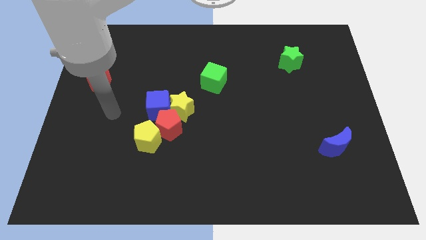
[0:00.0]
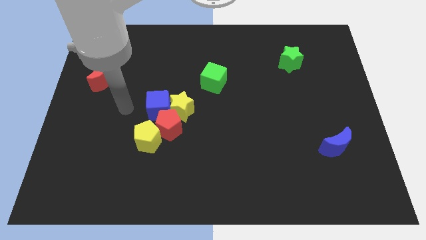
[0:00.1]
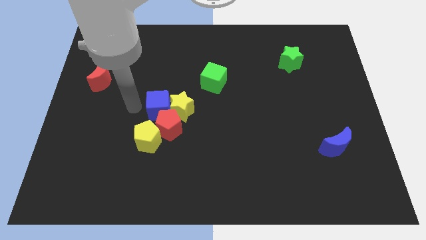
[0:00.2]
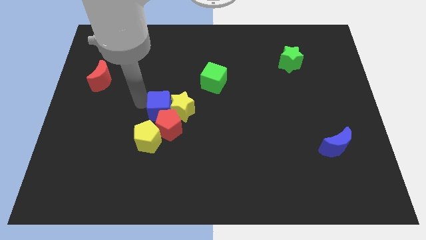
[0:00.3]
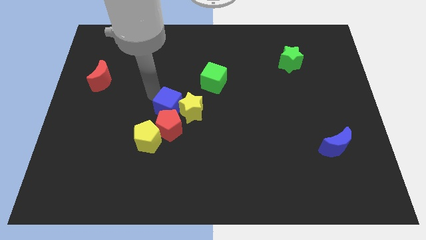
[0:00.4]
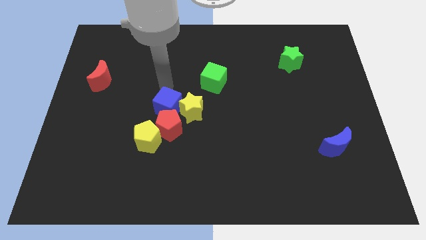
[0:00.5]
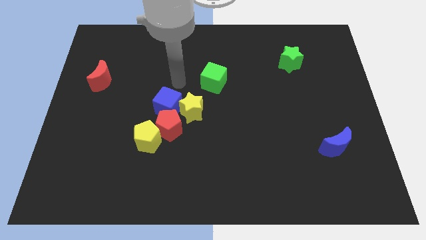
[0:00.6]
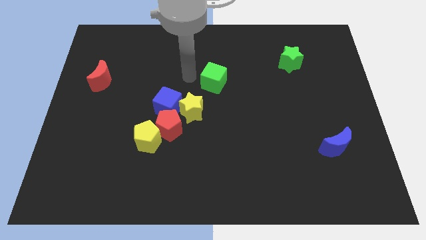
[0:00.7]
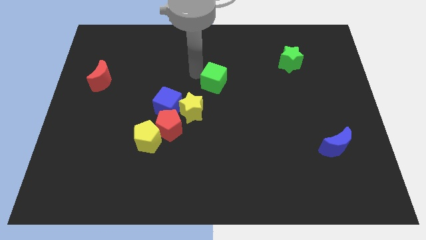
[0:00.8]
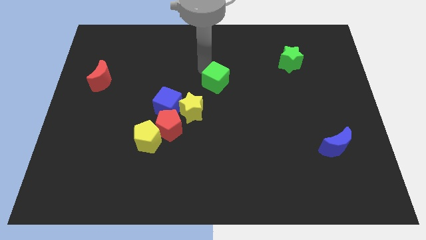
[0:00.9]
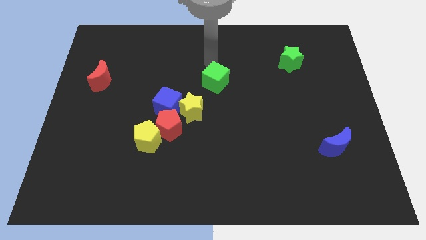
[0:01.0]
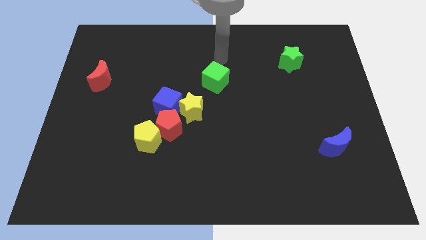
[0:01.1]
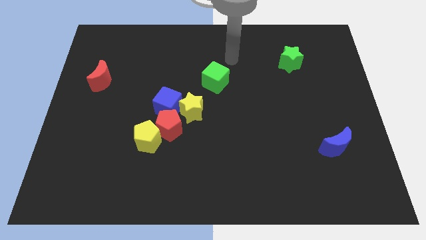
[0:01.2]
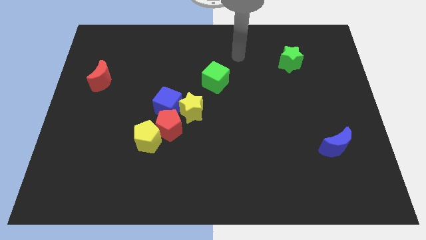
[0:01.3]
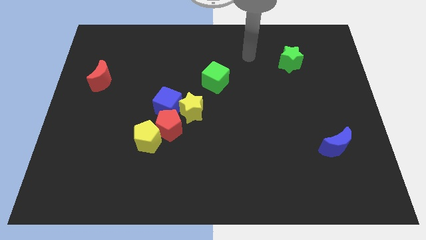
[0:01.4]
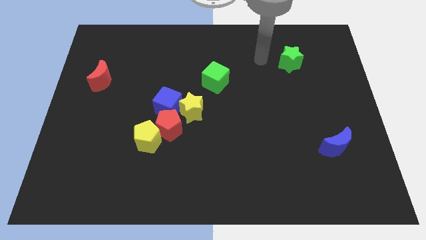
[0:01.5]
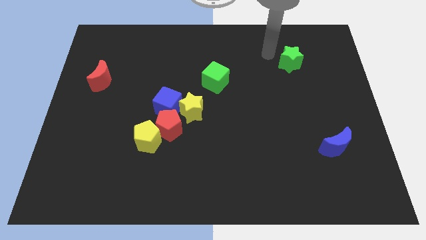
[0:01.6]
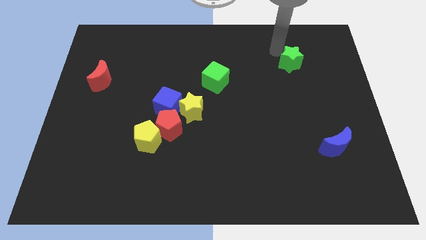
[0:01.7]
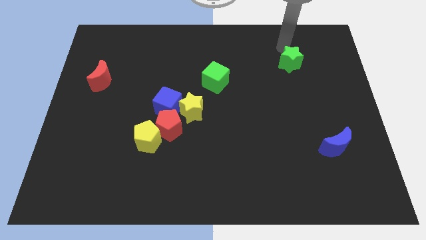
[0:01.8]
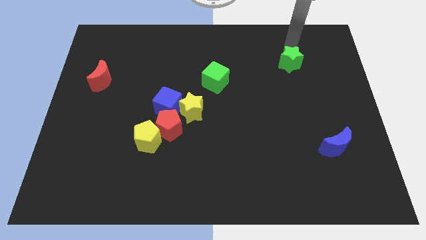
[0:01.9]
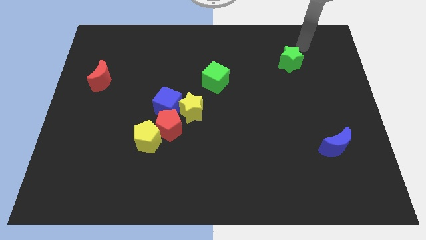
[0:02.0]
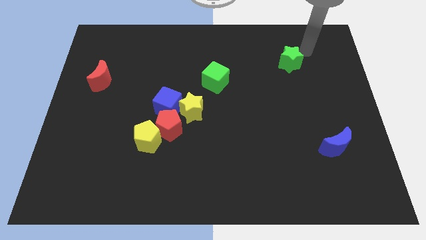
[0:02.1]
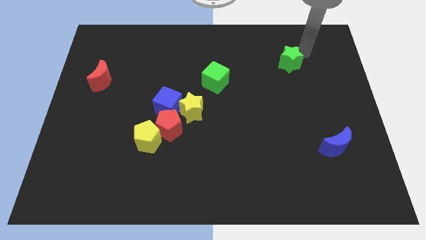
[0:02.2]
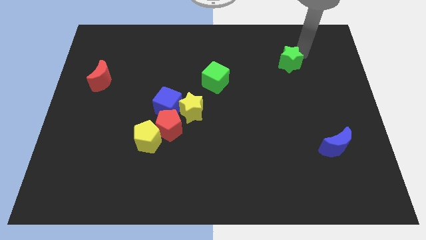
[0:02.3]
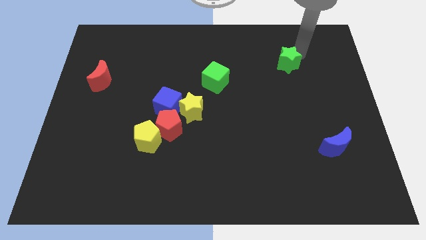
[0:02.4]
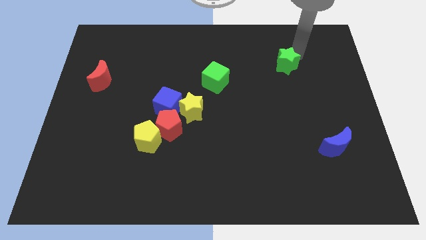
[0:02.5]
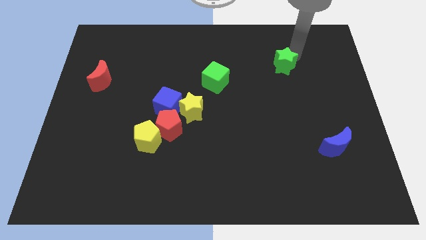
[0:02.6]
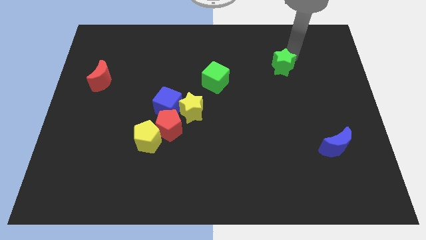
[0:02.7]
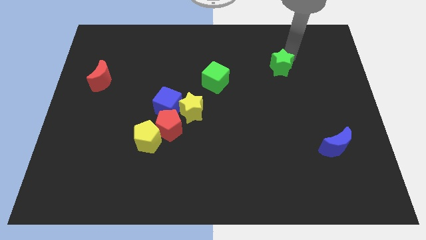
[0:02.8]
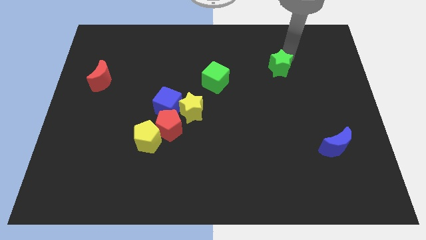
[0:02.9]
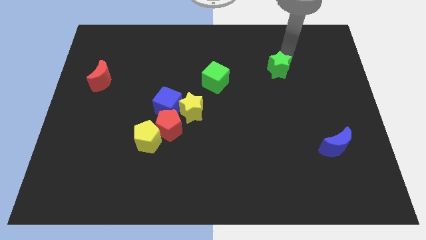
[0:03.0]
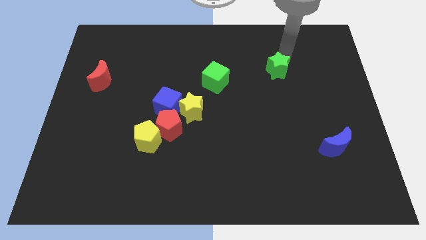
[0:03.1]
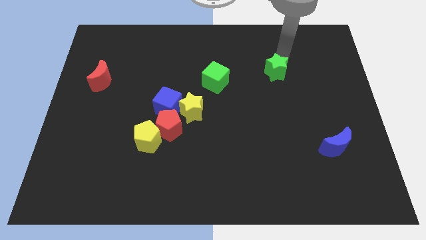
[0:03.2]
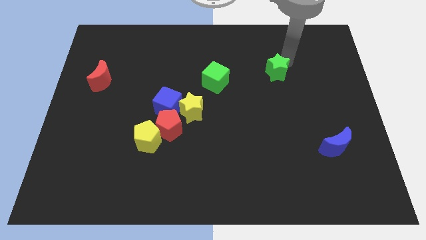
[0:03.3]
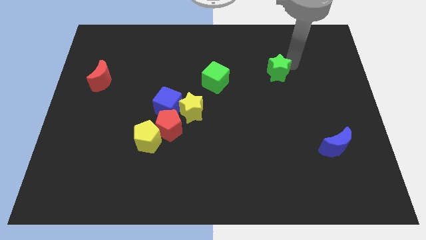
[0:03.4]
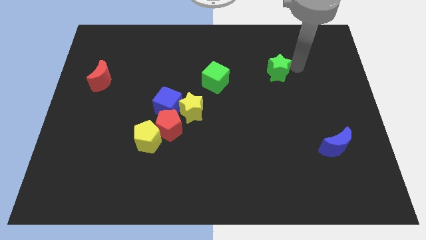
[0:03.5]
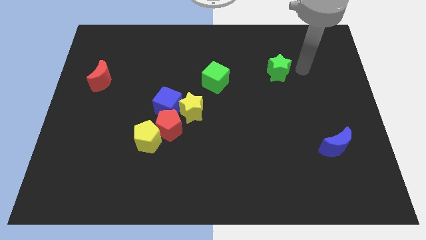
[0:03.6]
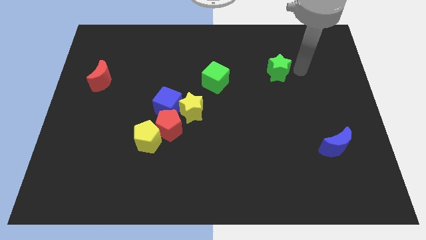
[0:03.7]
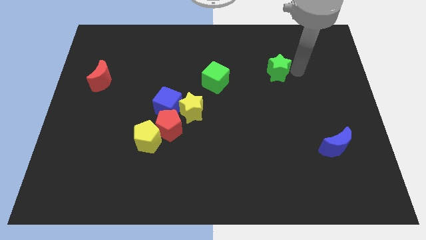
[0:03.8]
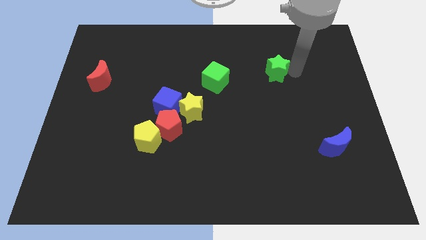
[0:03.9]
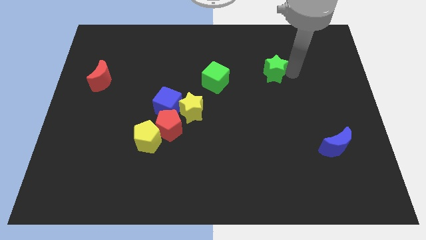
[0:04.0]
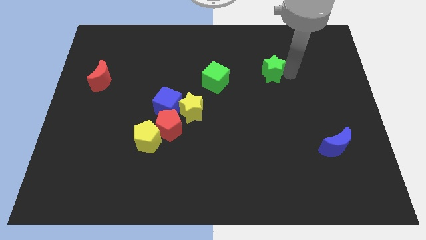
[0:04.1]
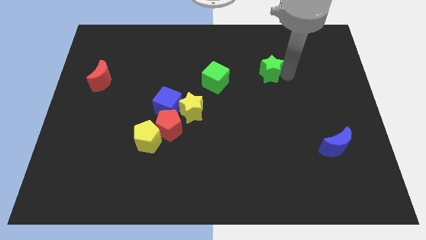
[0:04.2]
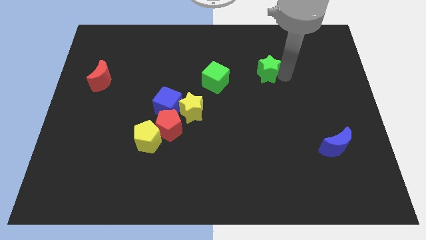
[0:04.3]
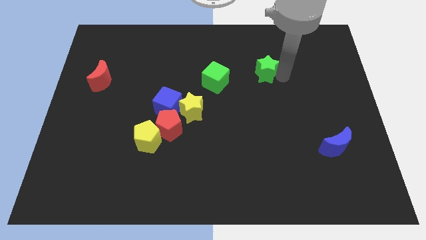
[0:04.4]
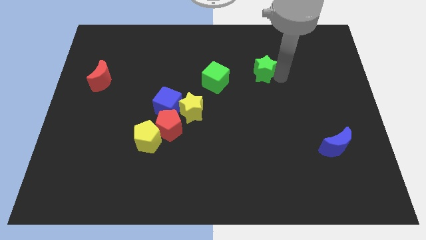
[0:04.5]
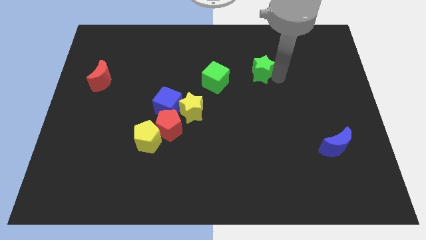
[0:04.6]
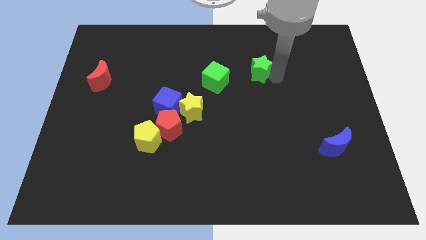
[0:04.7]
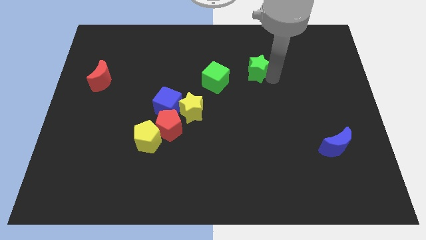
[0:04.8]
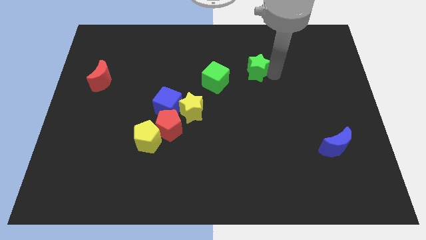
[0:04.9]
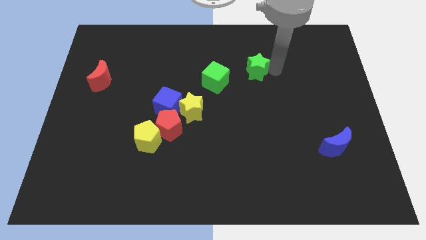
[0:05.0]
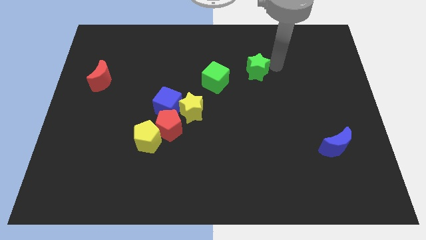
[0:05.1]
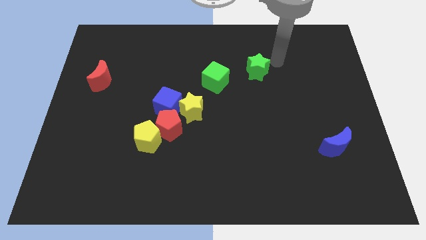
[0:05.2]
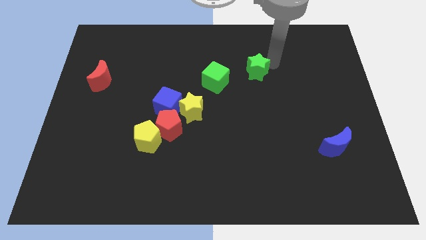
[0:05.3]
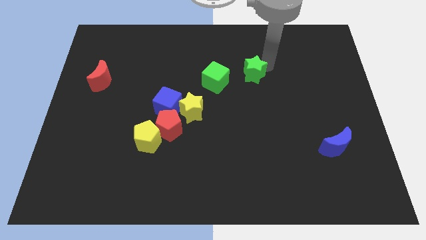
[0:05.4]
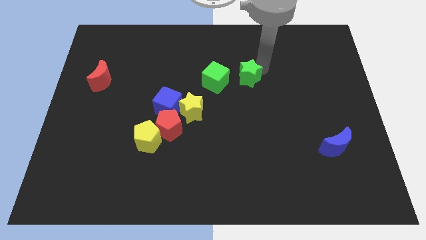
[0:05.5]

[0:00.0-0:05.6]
slide the green star to the middle

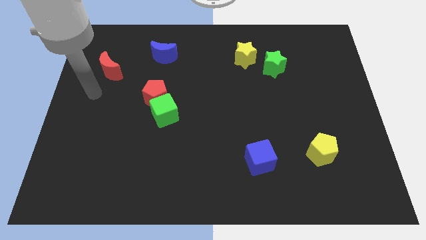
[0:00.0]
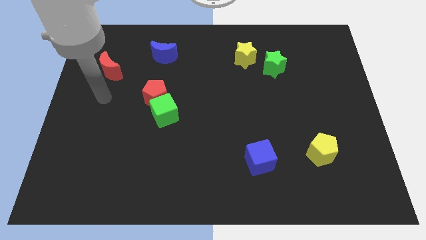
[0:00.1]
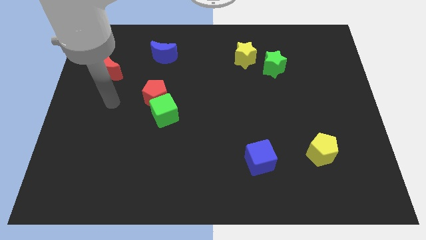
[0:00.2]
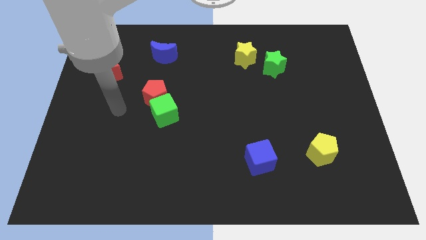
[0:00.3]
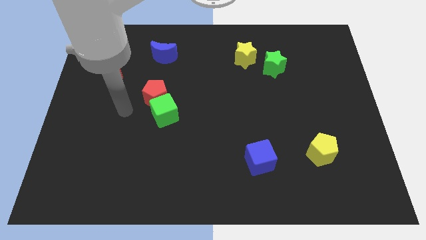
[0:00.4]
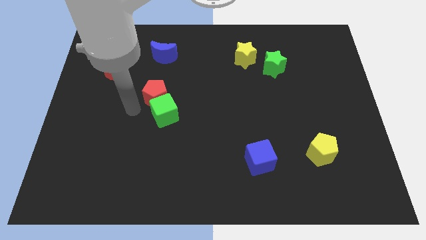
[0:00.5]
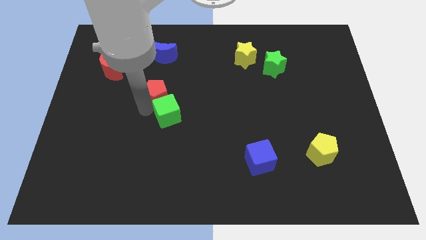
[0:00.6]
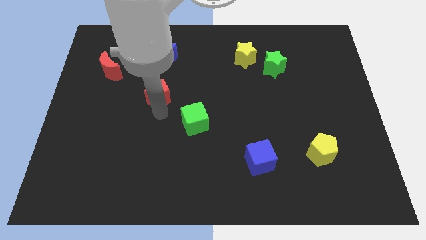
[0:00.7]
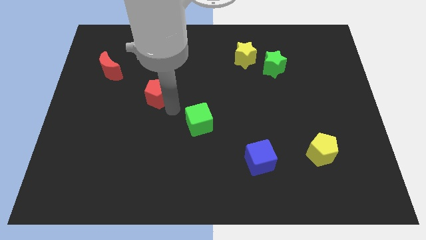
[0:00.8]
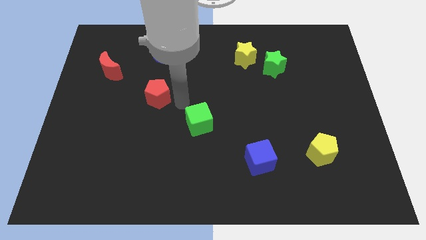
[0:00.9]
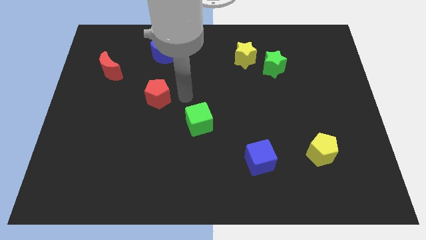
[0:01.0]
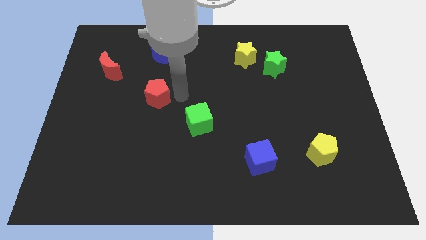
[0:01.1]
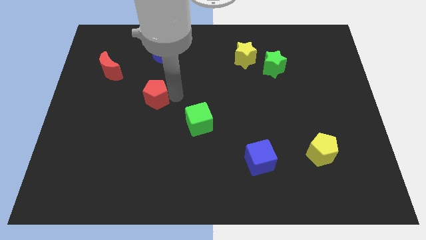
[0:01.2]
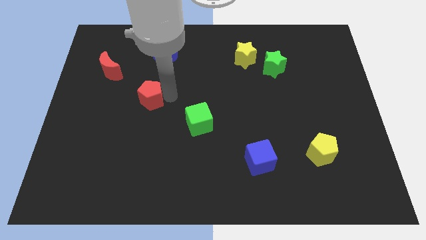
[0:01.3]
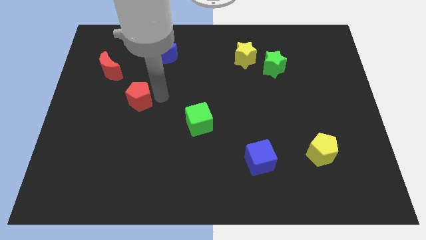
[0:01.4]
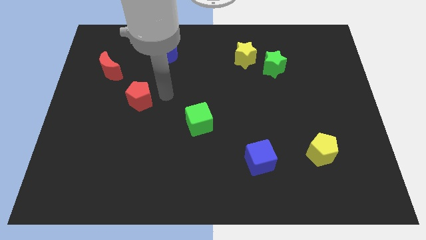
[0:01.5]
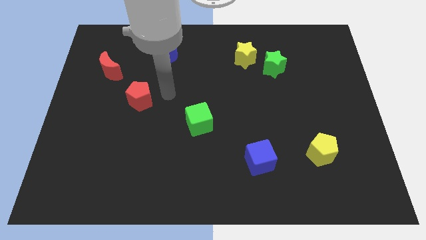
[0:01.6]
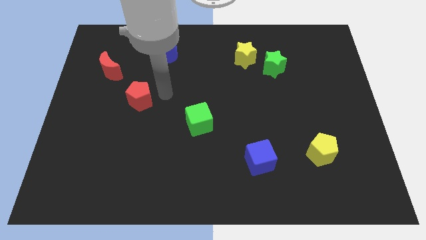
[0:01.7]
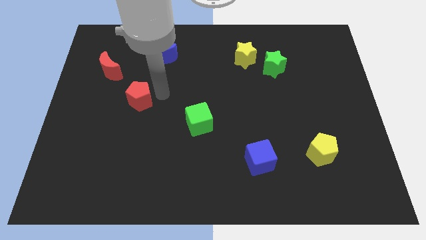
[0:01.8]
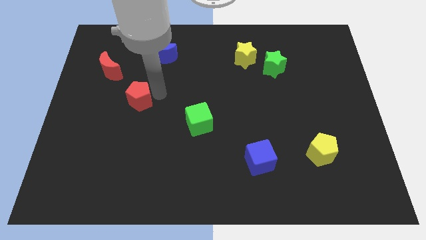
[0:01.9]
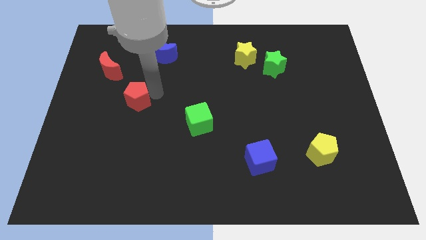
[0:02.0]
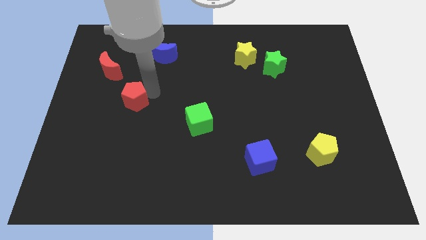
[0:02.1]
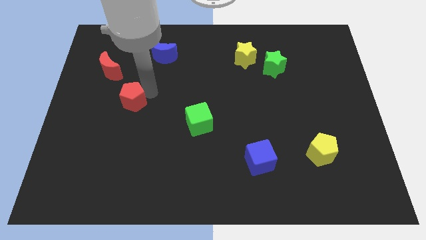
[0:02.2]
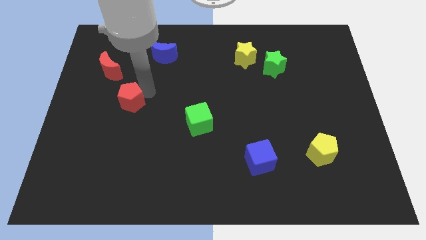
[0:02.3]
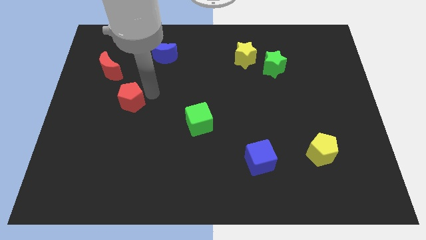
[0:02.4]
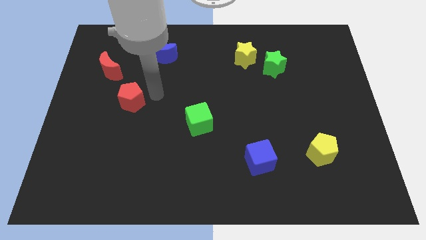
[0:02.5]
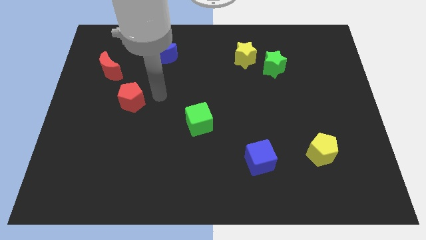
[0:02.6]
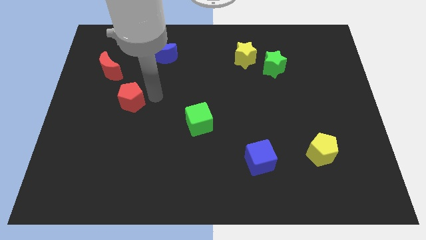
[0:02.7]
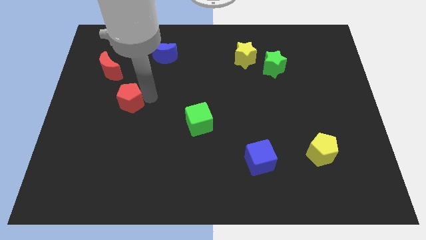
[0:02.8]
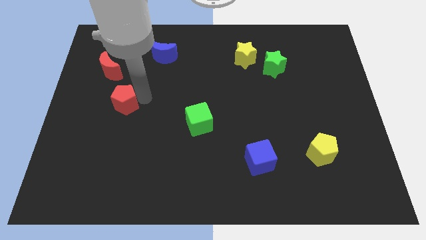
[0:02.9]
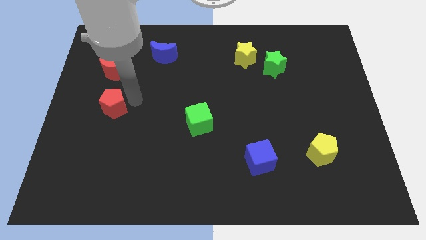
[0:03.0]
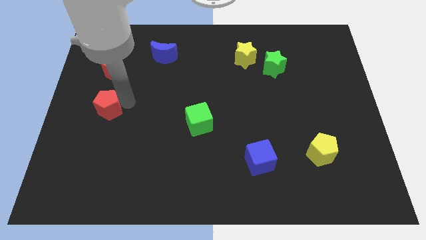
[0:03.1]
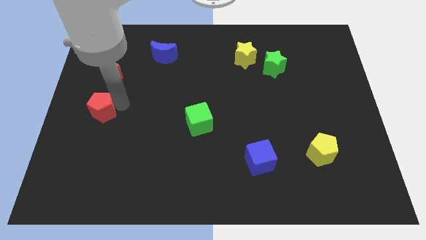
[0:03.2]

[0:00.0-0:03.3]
put the red pentagon to the left side
